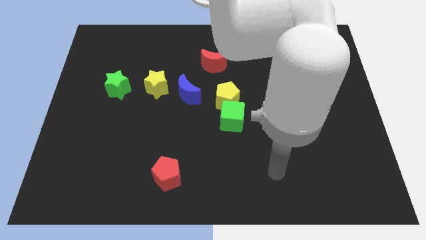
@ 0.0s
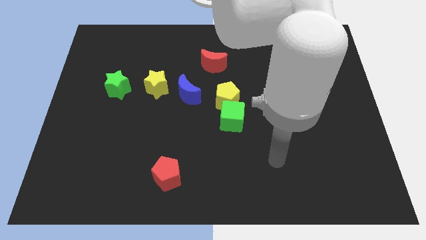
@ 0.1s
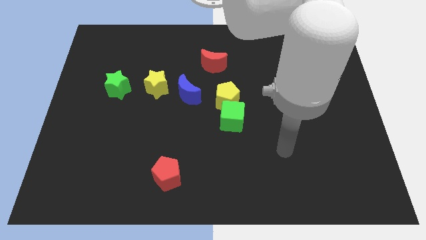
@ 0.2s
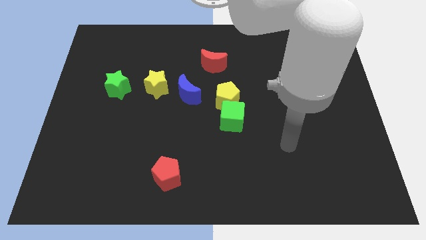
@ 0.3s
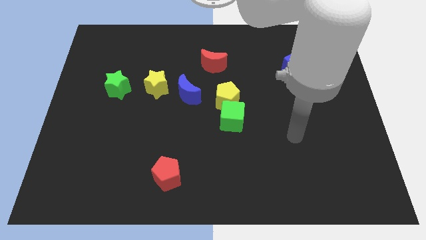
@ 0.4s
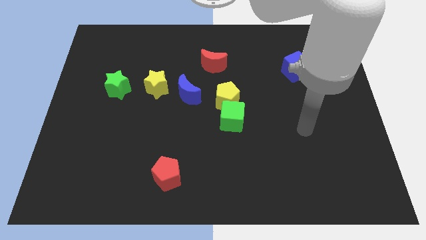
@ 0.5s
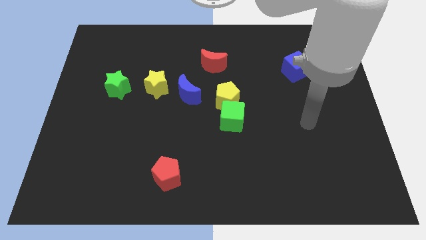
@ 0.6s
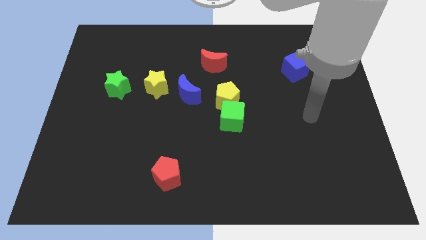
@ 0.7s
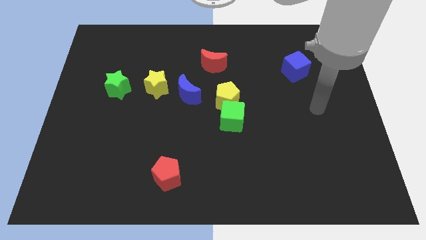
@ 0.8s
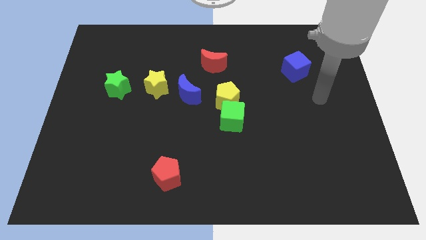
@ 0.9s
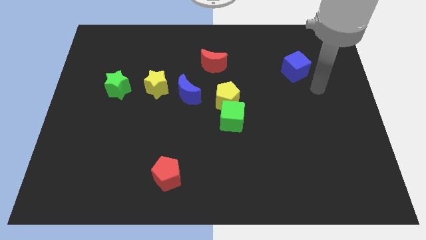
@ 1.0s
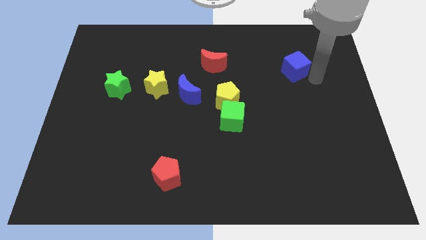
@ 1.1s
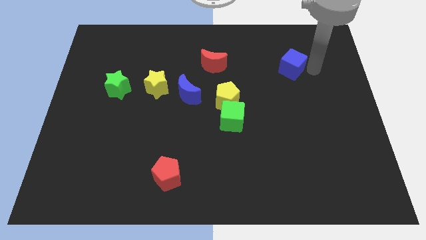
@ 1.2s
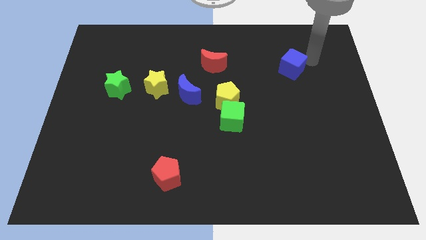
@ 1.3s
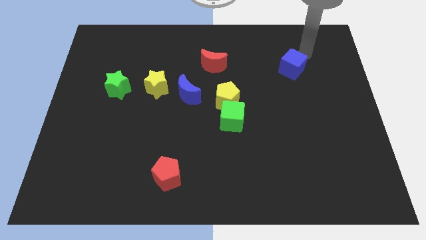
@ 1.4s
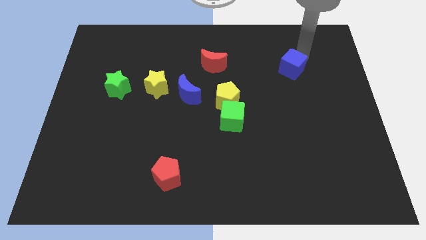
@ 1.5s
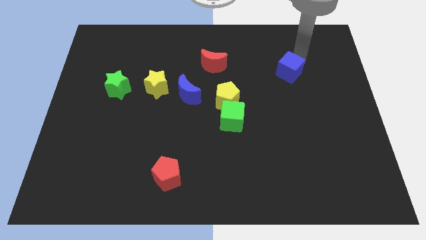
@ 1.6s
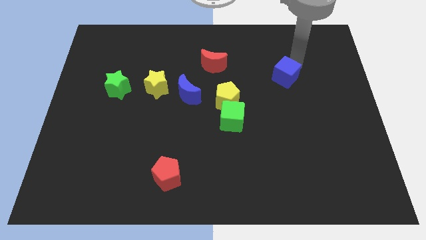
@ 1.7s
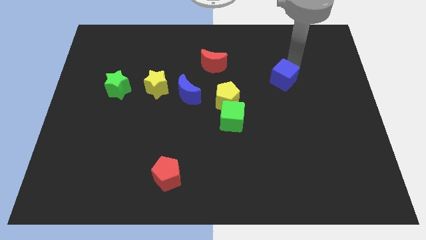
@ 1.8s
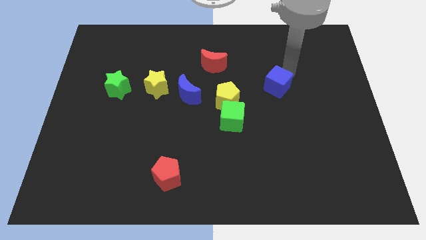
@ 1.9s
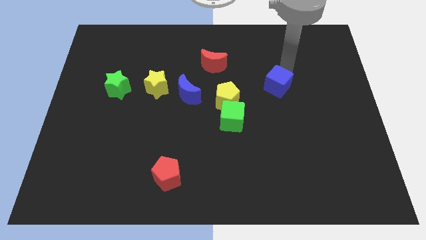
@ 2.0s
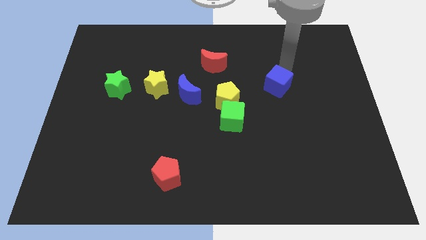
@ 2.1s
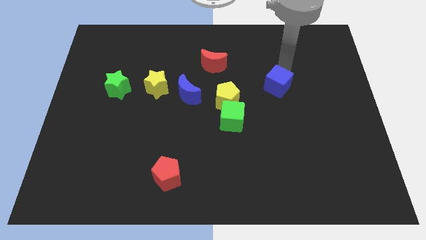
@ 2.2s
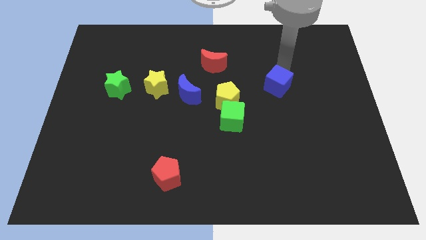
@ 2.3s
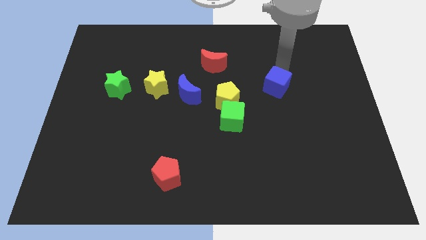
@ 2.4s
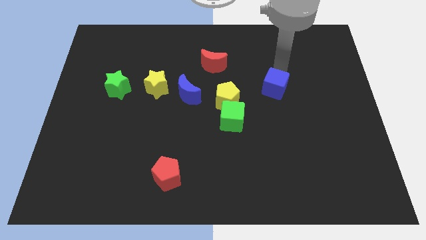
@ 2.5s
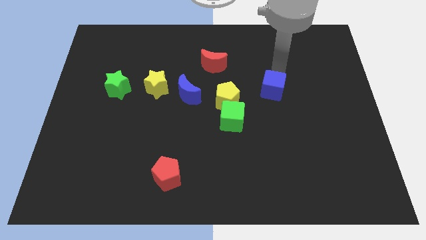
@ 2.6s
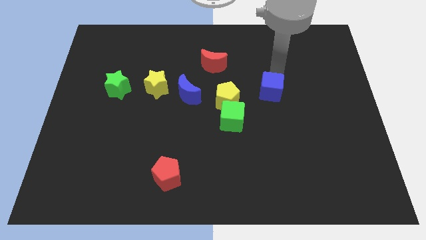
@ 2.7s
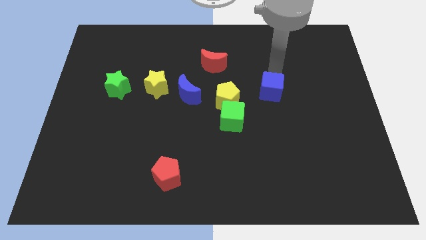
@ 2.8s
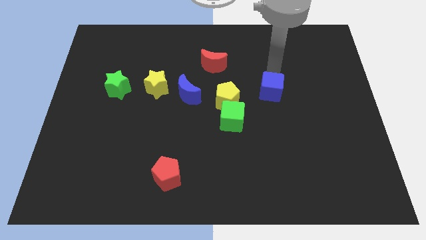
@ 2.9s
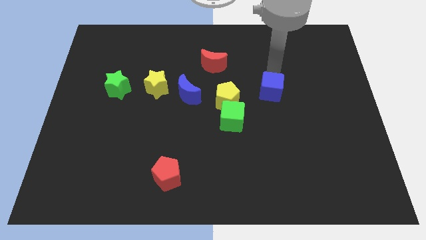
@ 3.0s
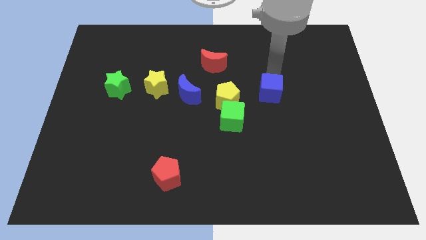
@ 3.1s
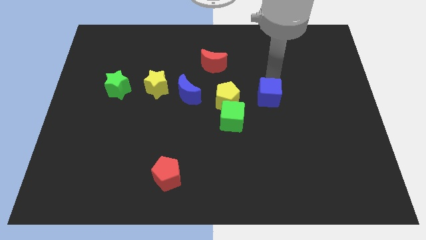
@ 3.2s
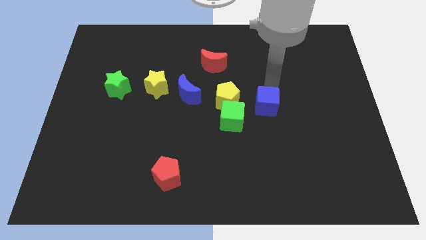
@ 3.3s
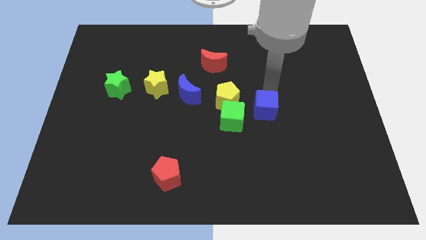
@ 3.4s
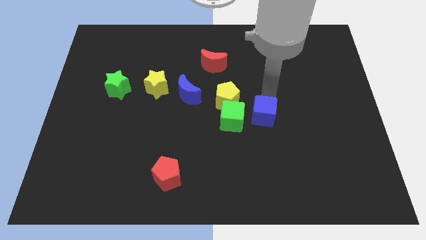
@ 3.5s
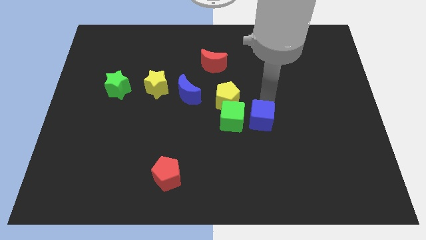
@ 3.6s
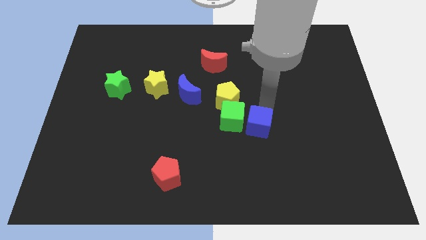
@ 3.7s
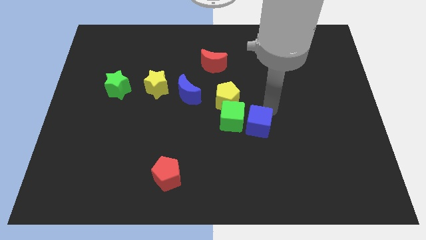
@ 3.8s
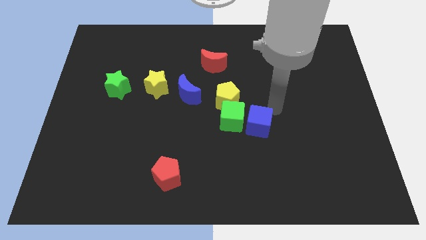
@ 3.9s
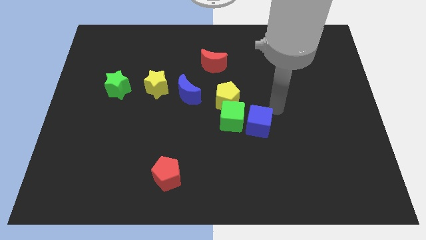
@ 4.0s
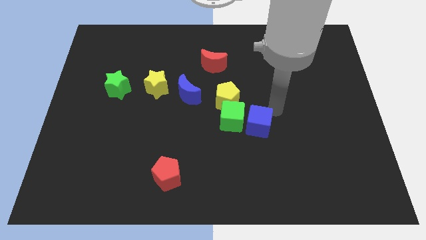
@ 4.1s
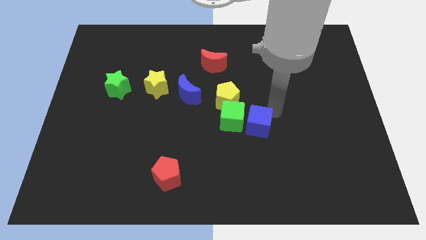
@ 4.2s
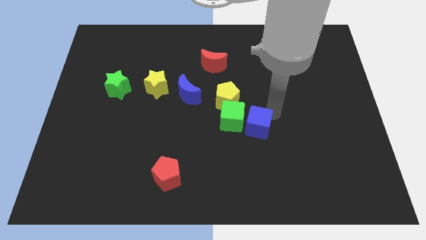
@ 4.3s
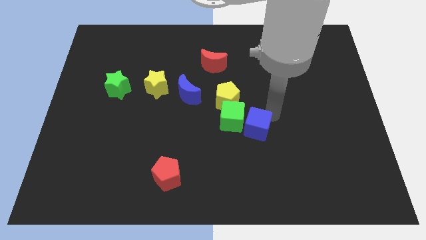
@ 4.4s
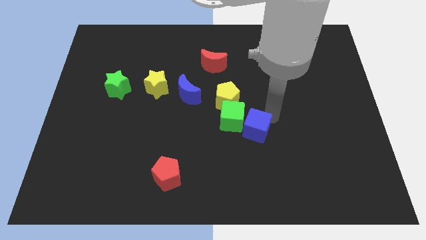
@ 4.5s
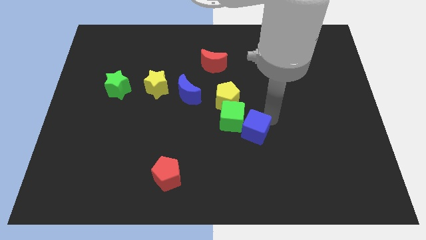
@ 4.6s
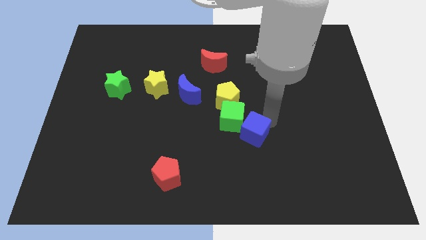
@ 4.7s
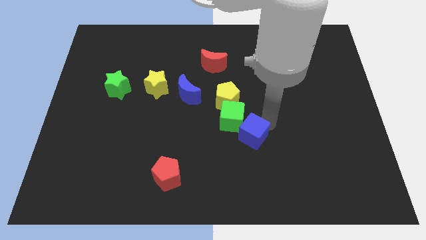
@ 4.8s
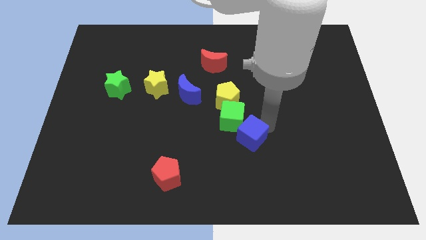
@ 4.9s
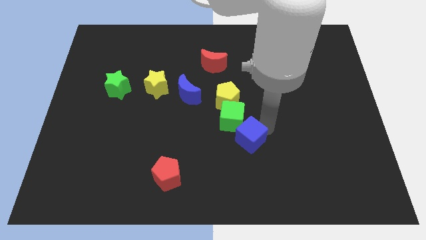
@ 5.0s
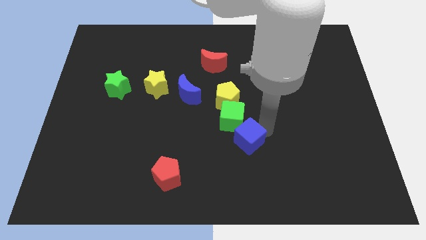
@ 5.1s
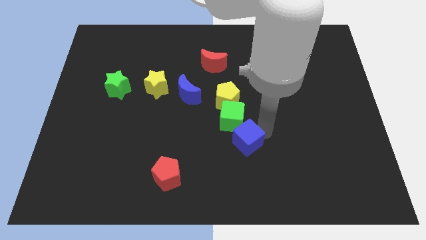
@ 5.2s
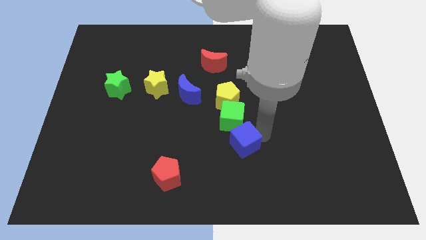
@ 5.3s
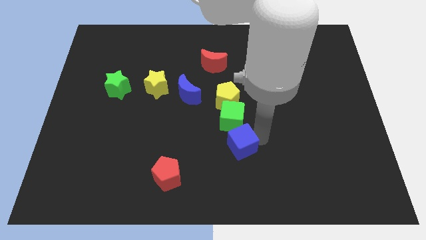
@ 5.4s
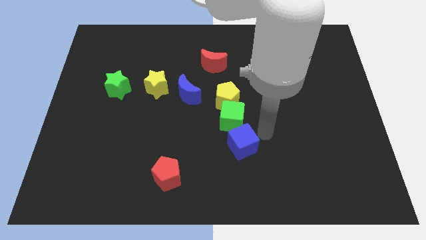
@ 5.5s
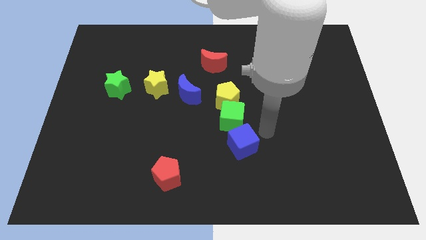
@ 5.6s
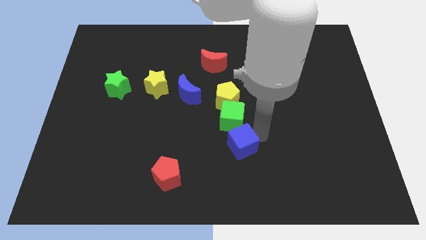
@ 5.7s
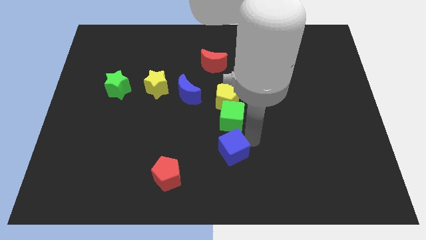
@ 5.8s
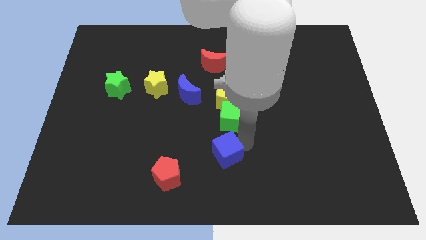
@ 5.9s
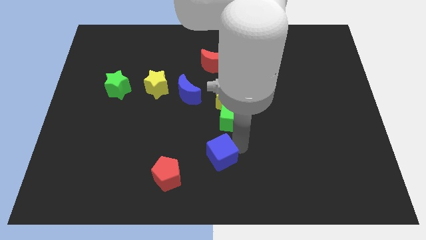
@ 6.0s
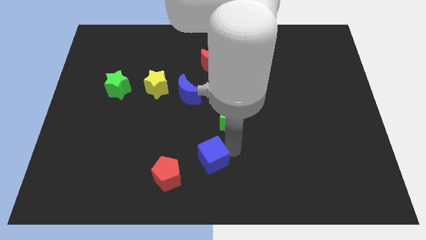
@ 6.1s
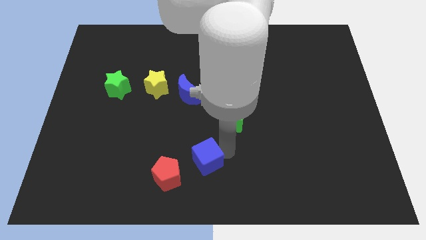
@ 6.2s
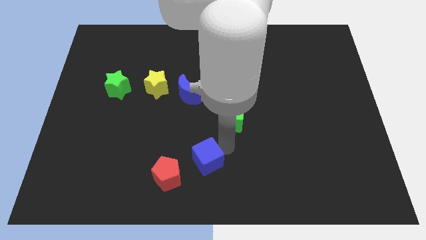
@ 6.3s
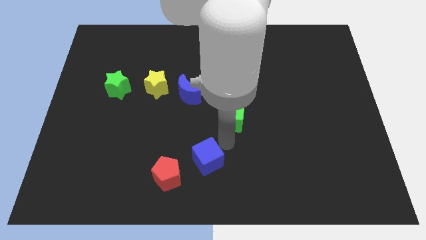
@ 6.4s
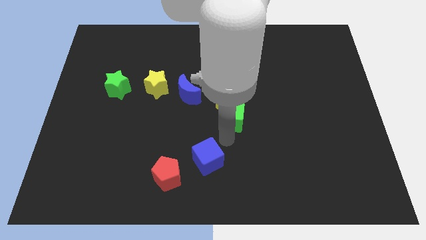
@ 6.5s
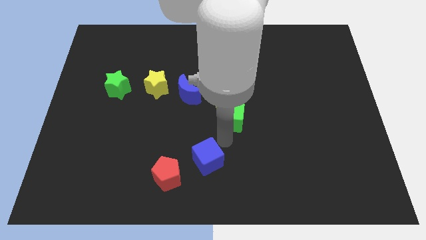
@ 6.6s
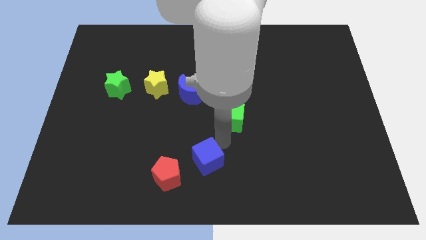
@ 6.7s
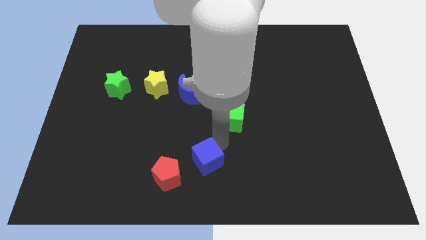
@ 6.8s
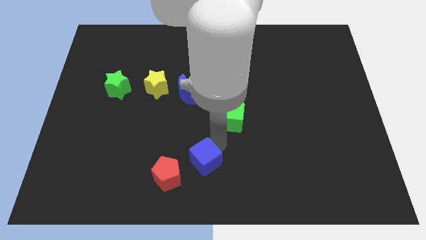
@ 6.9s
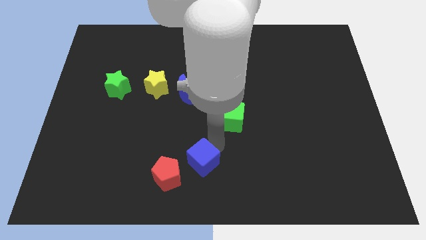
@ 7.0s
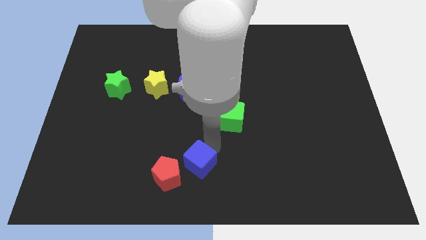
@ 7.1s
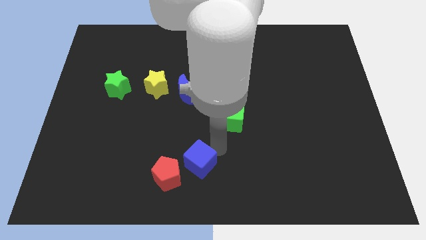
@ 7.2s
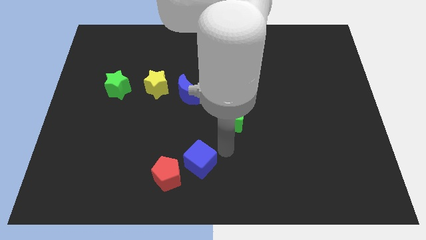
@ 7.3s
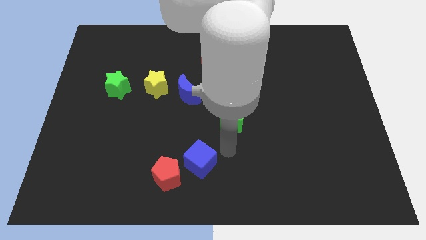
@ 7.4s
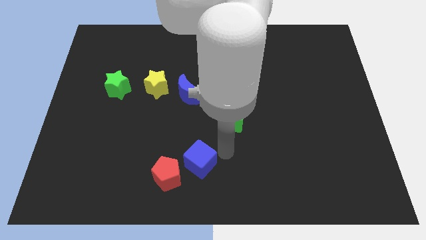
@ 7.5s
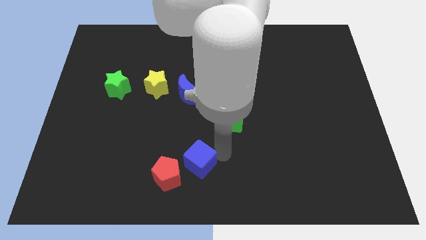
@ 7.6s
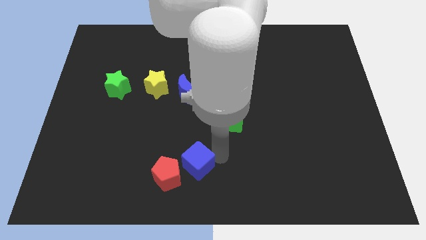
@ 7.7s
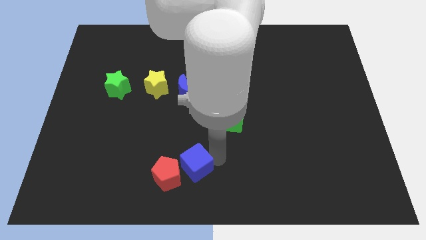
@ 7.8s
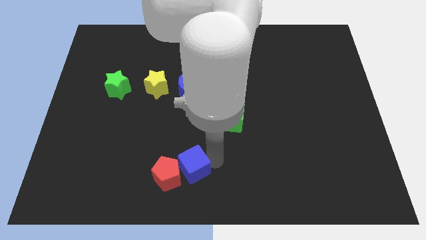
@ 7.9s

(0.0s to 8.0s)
push the blue cube next to the red pentagon
